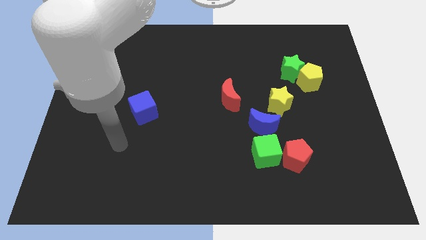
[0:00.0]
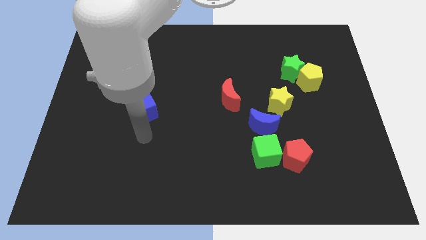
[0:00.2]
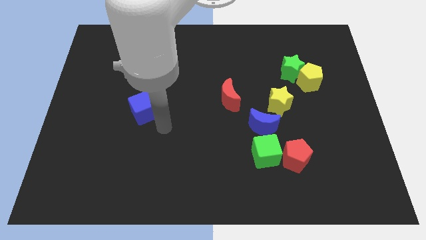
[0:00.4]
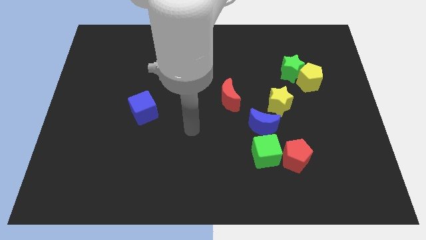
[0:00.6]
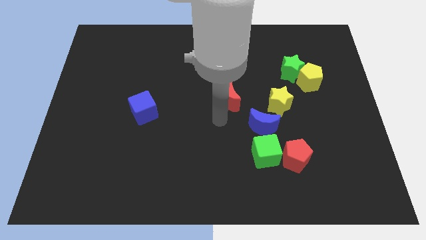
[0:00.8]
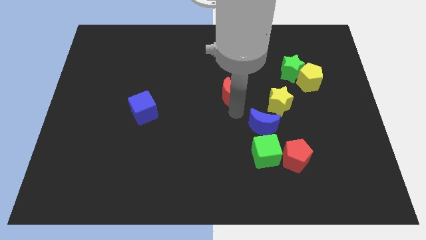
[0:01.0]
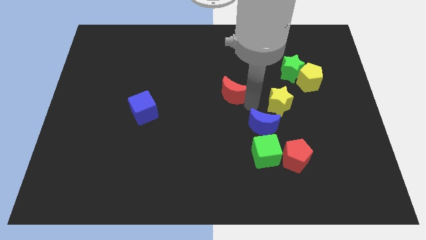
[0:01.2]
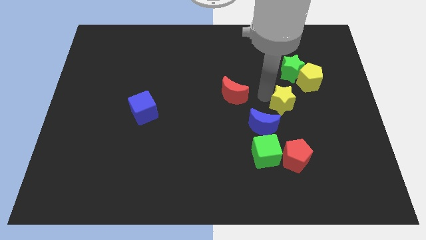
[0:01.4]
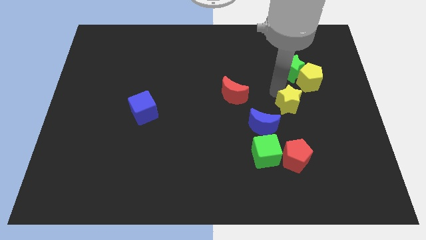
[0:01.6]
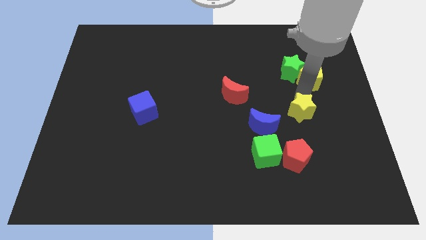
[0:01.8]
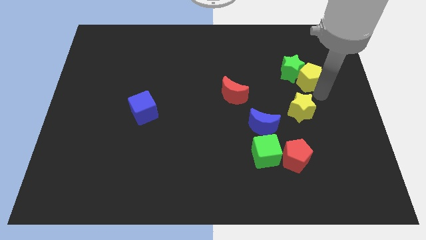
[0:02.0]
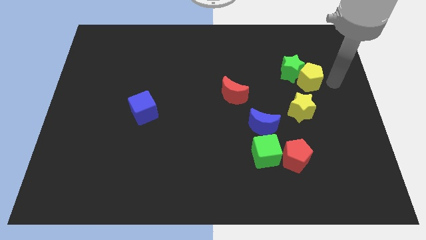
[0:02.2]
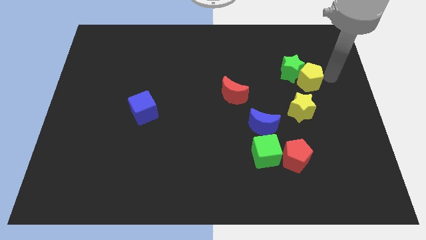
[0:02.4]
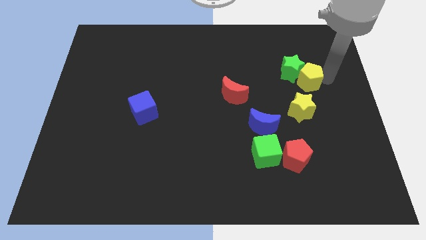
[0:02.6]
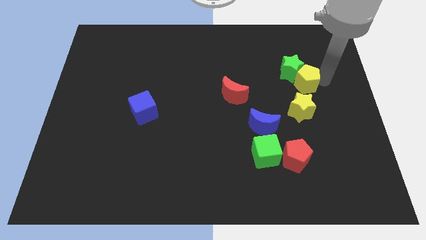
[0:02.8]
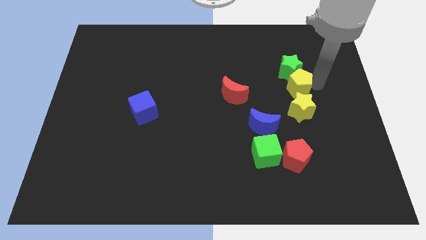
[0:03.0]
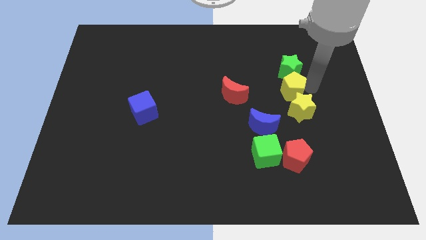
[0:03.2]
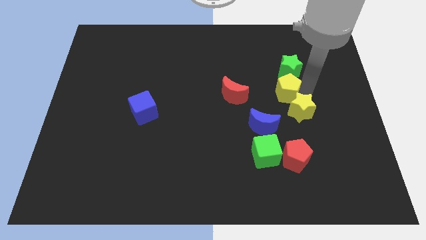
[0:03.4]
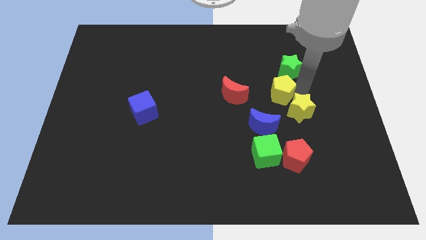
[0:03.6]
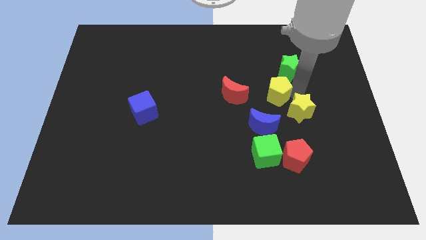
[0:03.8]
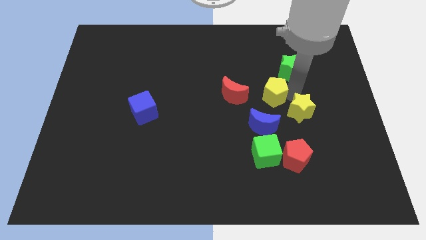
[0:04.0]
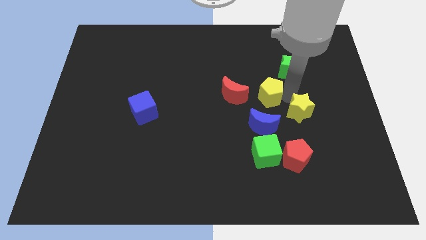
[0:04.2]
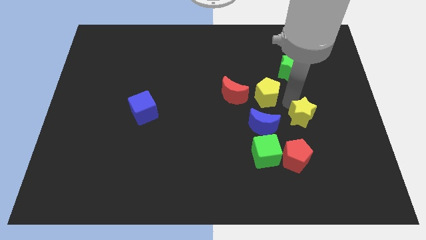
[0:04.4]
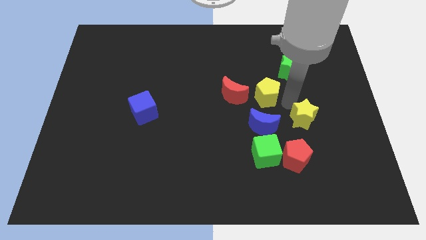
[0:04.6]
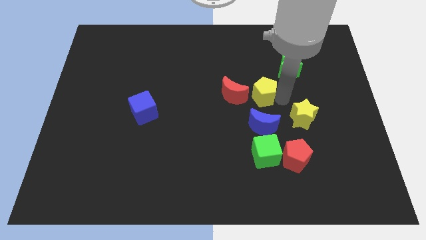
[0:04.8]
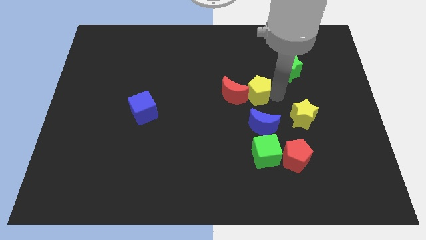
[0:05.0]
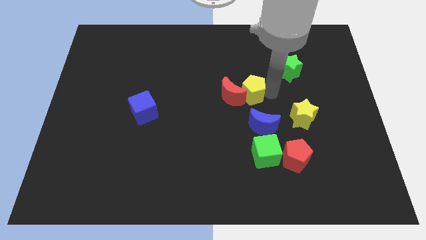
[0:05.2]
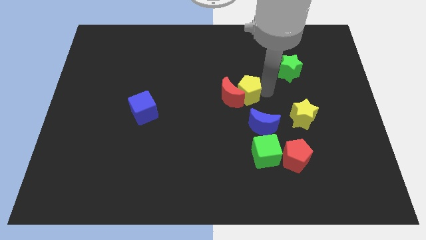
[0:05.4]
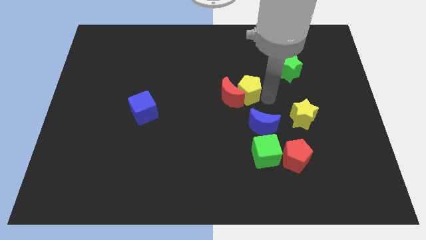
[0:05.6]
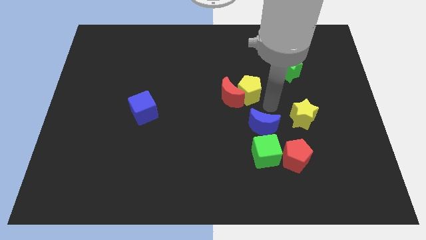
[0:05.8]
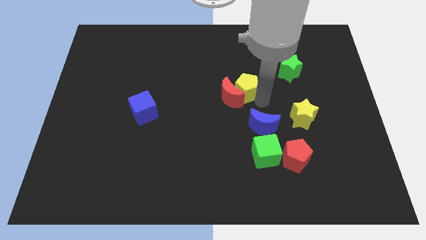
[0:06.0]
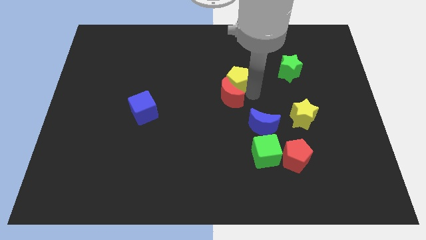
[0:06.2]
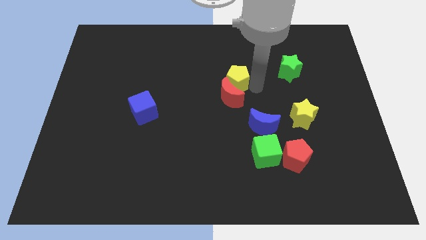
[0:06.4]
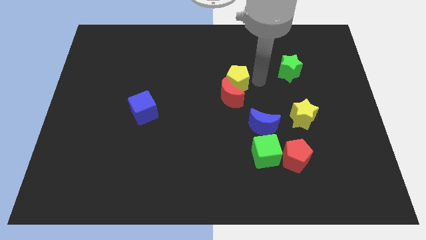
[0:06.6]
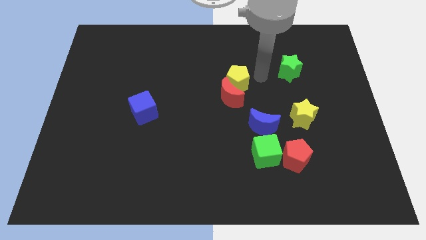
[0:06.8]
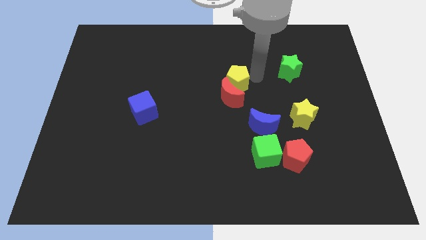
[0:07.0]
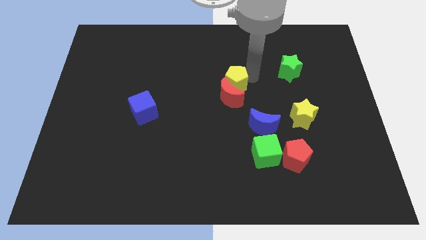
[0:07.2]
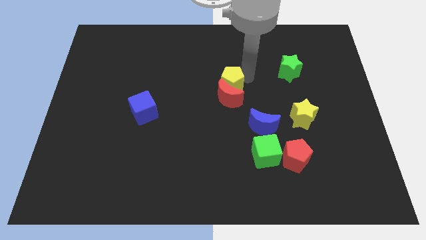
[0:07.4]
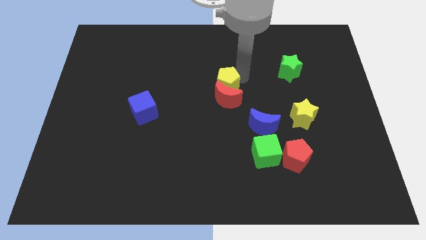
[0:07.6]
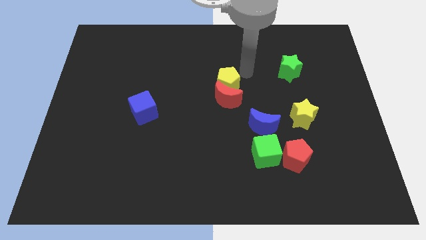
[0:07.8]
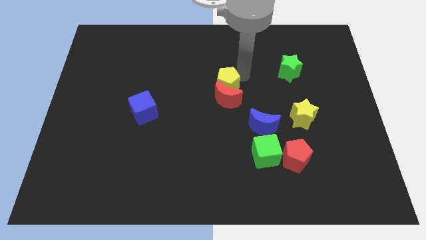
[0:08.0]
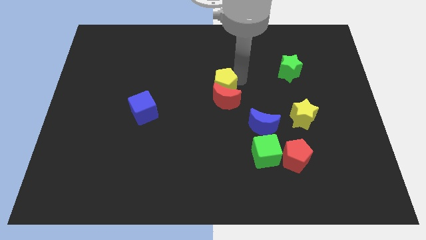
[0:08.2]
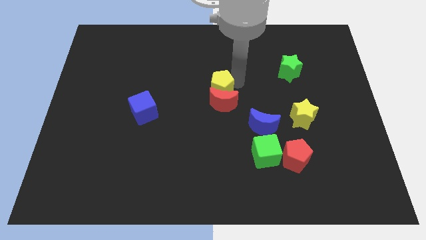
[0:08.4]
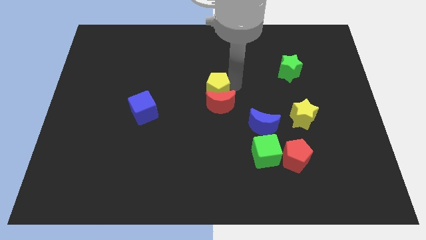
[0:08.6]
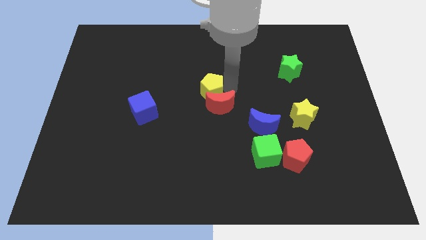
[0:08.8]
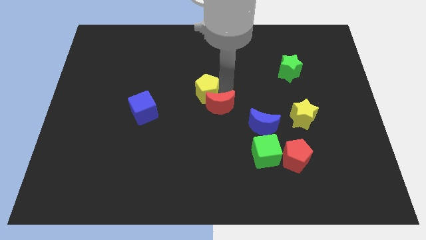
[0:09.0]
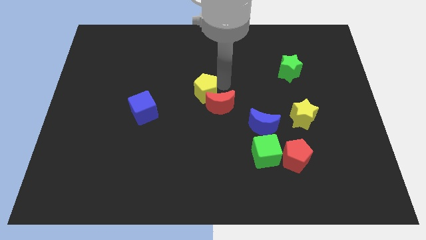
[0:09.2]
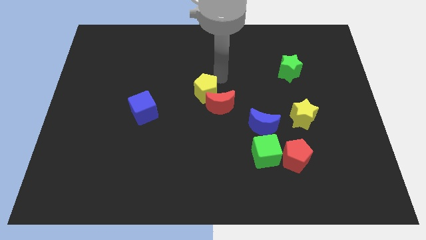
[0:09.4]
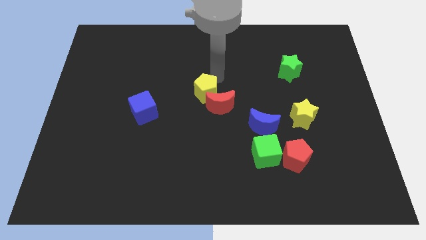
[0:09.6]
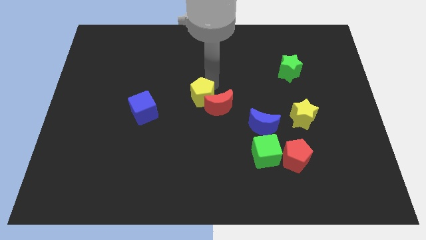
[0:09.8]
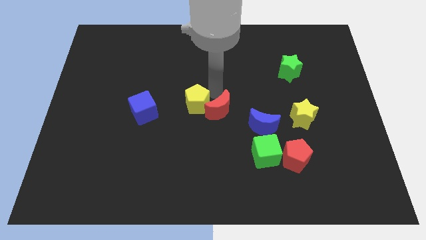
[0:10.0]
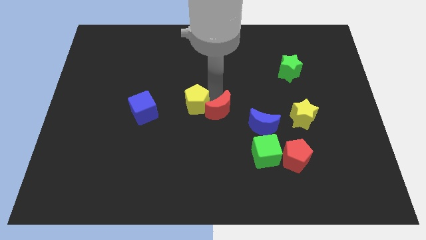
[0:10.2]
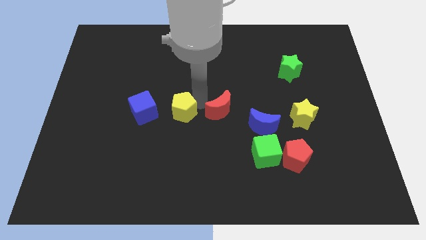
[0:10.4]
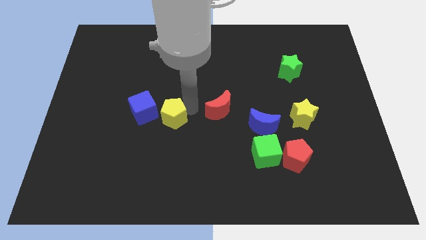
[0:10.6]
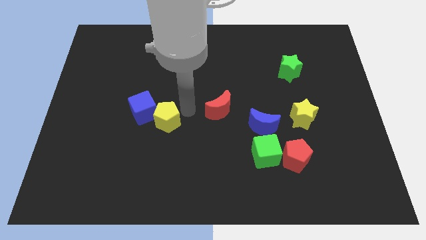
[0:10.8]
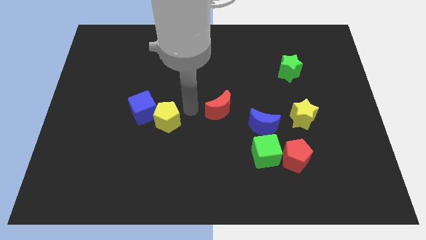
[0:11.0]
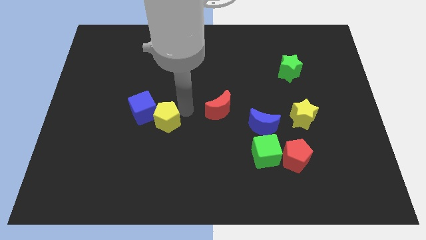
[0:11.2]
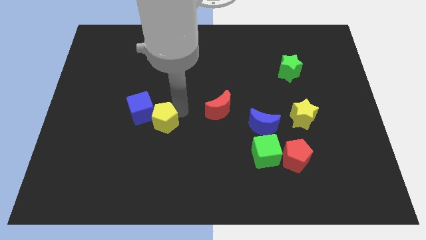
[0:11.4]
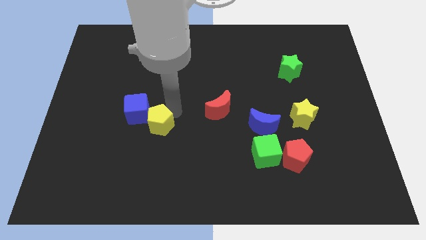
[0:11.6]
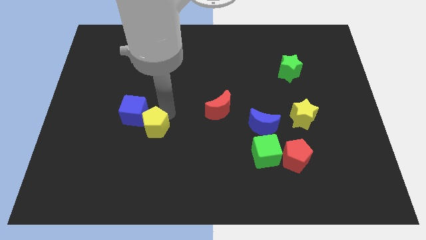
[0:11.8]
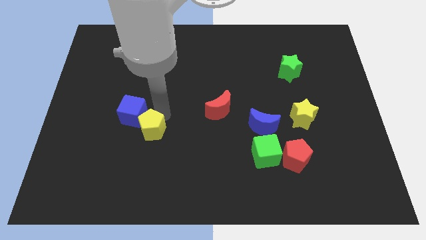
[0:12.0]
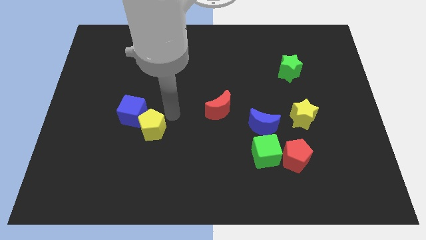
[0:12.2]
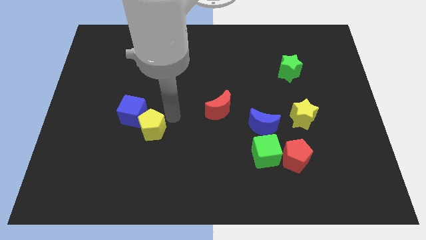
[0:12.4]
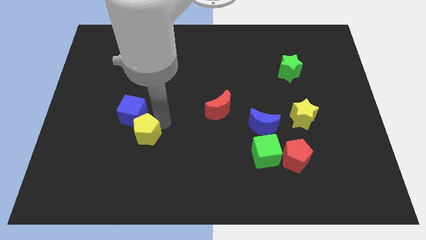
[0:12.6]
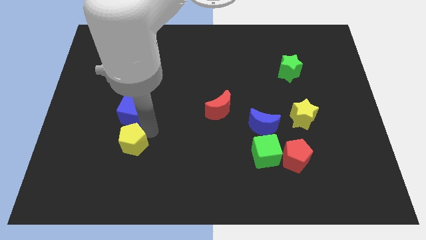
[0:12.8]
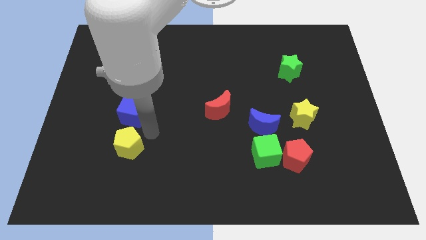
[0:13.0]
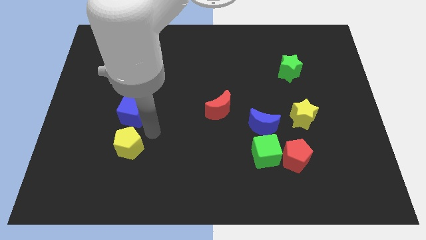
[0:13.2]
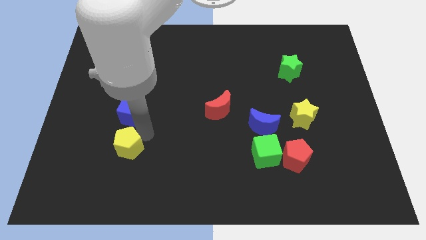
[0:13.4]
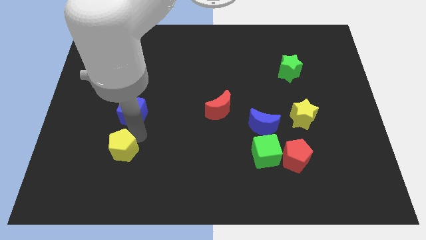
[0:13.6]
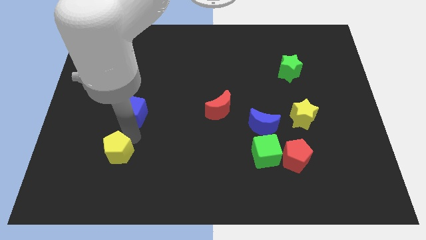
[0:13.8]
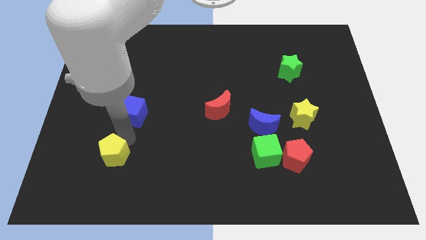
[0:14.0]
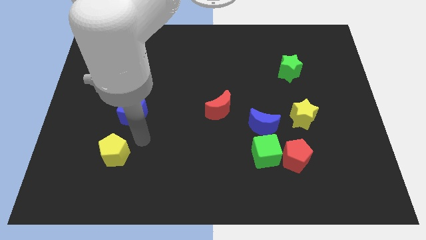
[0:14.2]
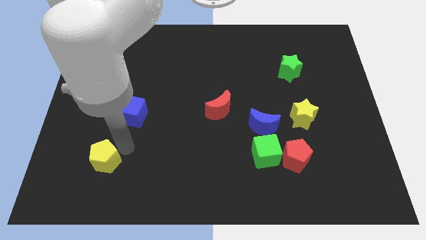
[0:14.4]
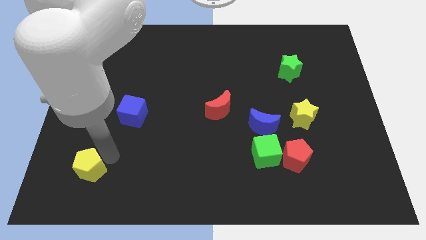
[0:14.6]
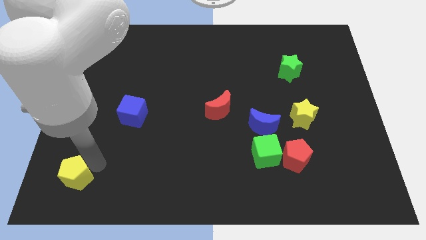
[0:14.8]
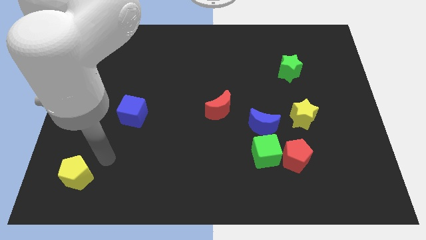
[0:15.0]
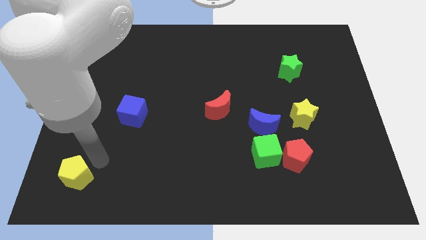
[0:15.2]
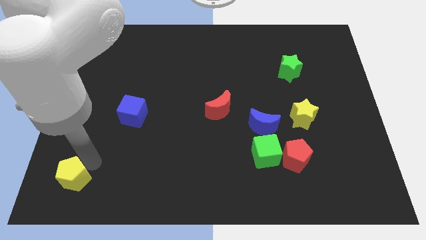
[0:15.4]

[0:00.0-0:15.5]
put the yellow pentagon to the bottom left of the board
